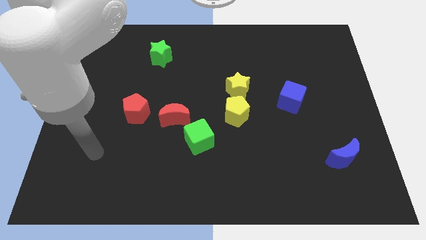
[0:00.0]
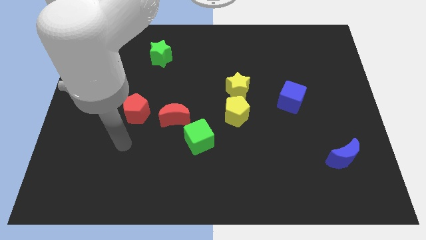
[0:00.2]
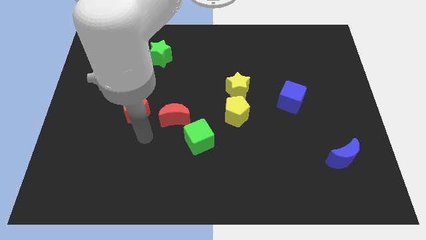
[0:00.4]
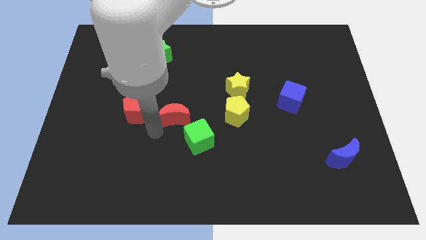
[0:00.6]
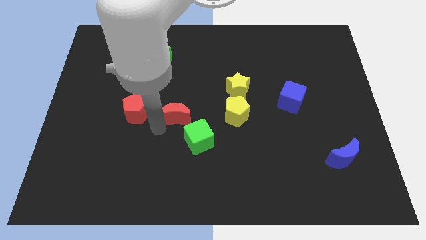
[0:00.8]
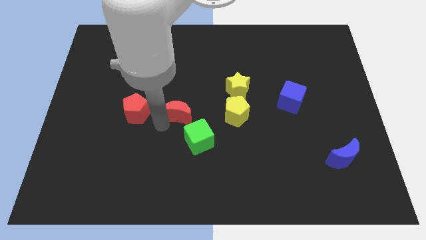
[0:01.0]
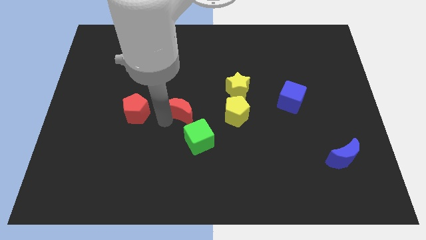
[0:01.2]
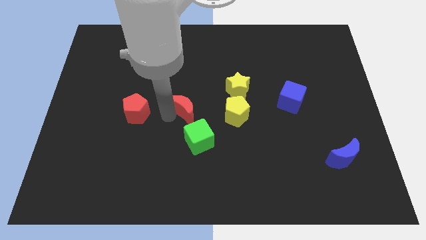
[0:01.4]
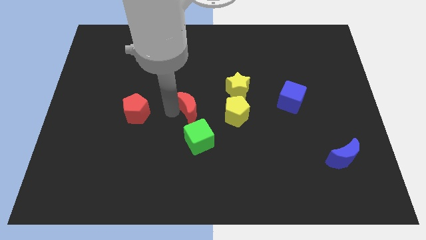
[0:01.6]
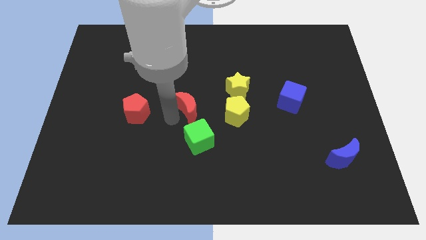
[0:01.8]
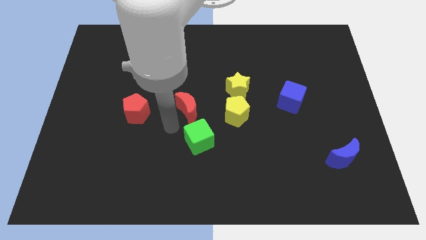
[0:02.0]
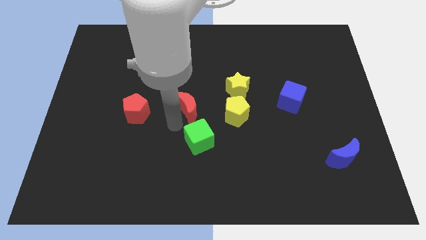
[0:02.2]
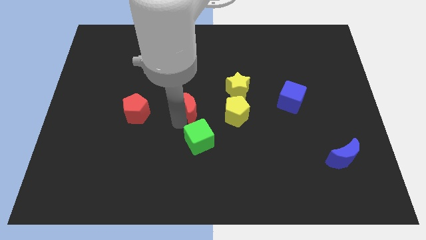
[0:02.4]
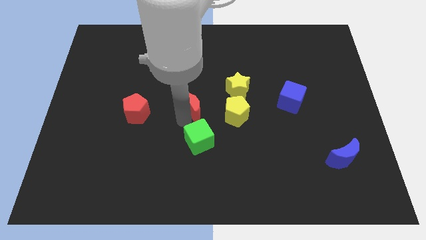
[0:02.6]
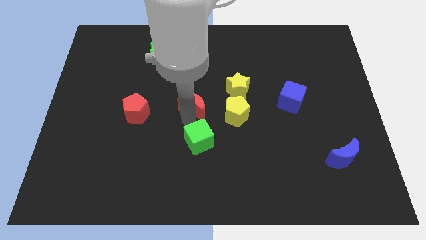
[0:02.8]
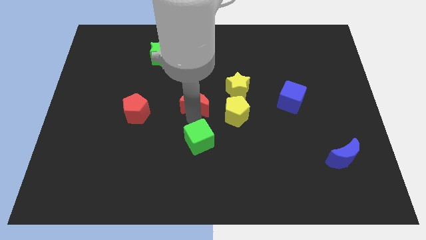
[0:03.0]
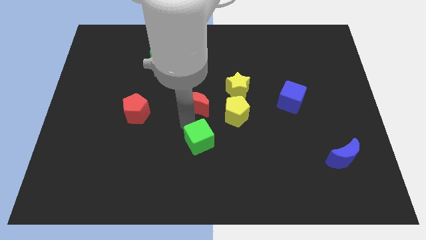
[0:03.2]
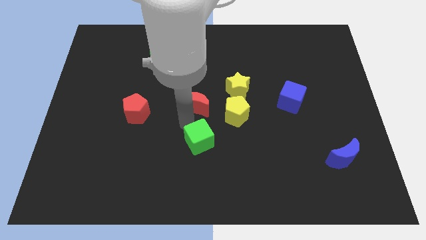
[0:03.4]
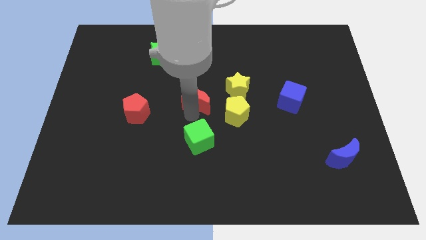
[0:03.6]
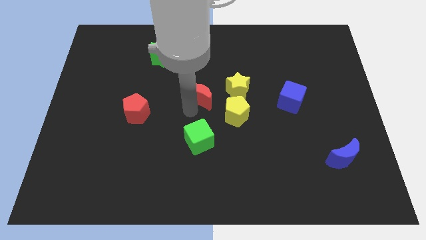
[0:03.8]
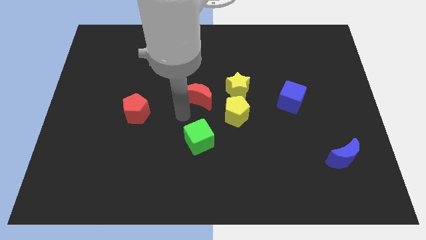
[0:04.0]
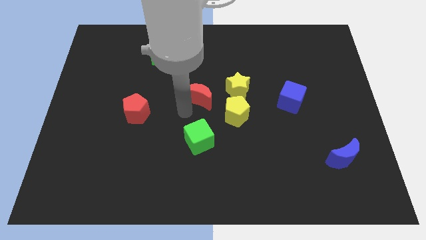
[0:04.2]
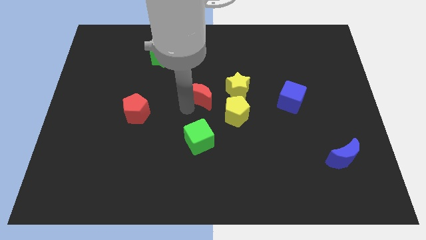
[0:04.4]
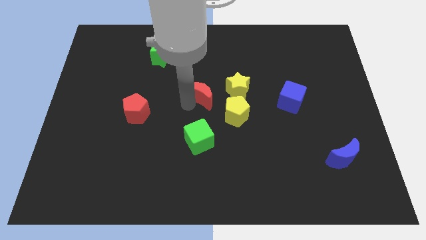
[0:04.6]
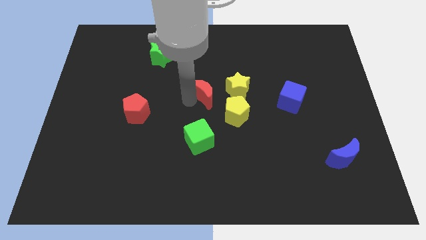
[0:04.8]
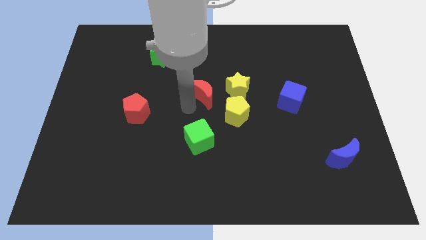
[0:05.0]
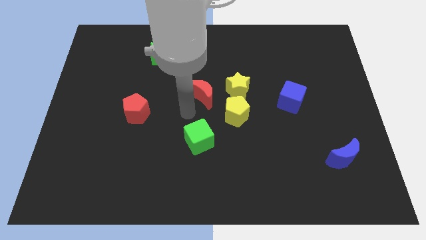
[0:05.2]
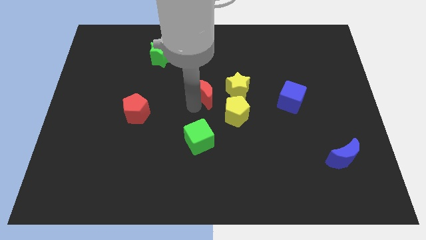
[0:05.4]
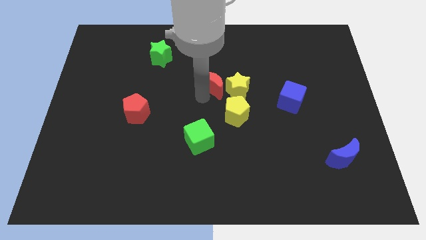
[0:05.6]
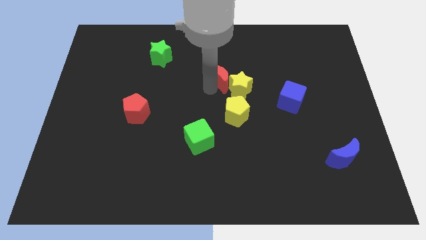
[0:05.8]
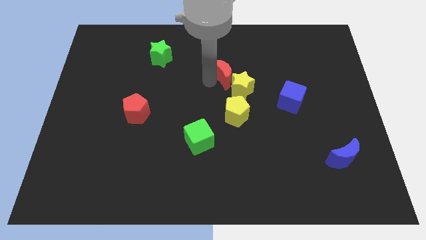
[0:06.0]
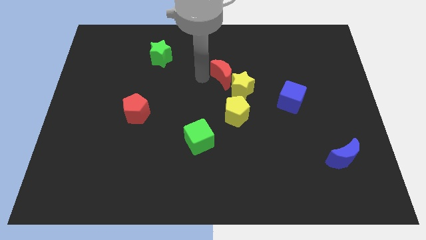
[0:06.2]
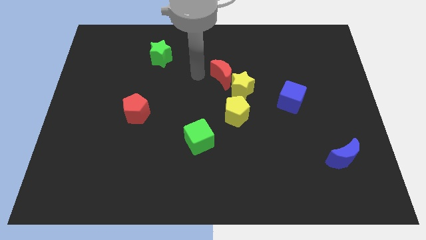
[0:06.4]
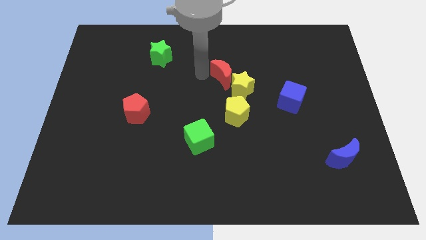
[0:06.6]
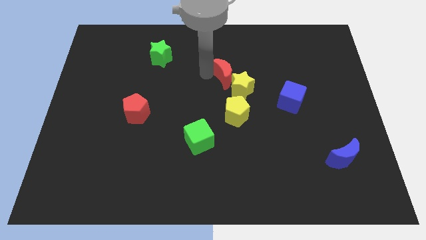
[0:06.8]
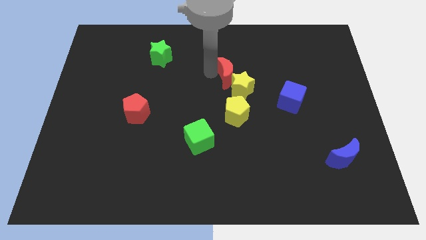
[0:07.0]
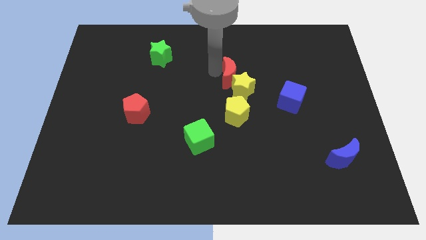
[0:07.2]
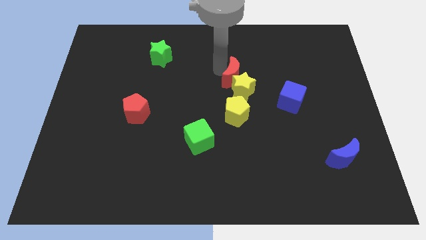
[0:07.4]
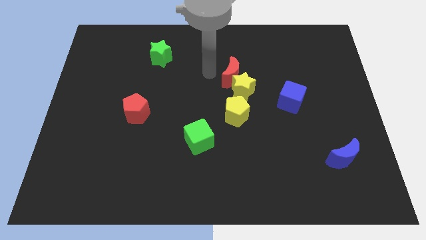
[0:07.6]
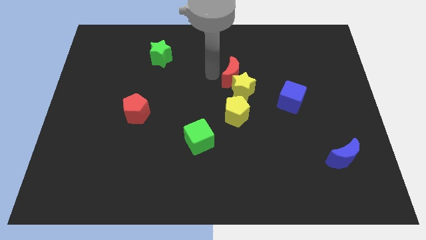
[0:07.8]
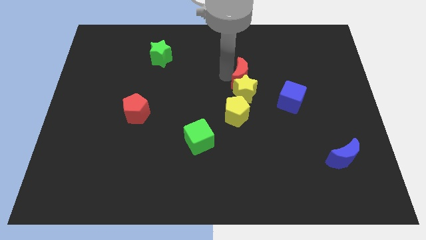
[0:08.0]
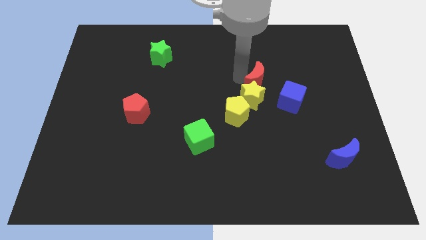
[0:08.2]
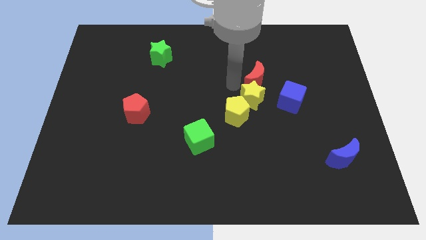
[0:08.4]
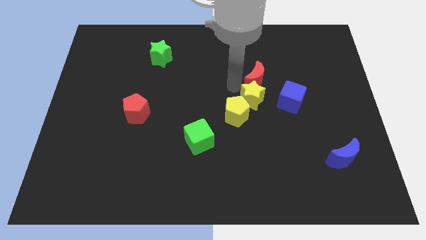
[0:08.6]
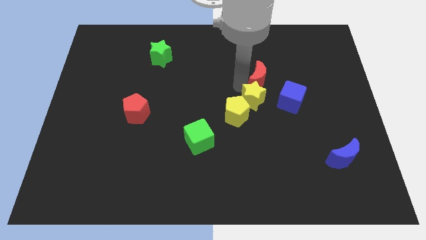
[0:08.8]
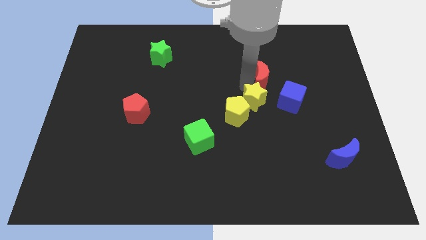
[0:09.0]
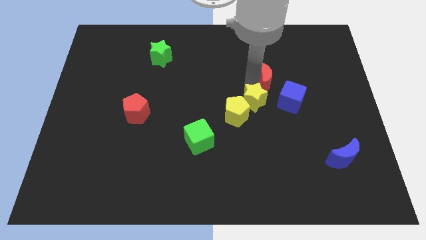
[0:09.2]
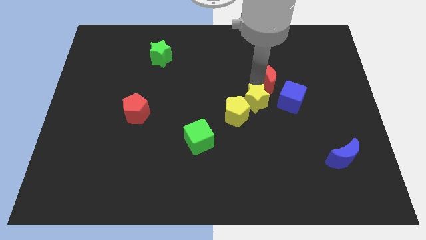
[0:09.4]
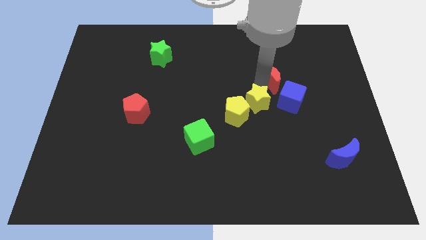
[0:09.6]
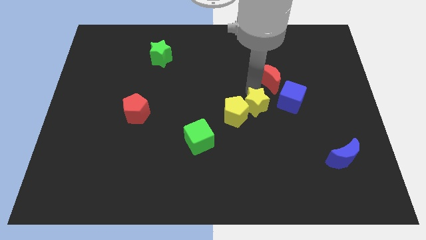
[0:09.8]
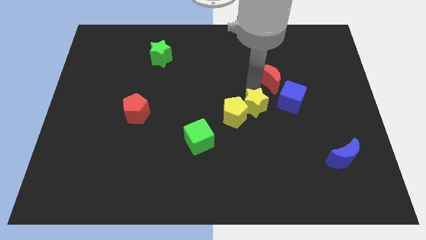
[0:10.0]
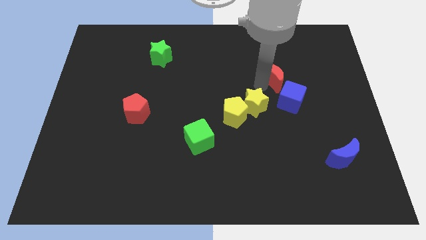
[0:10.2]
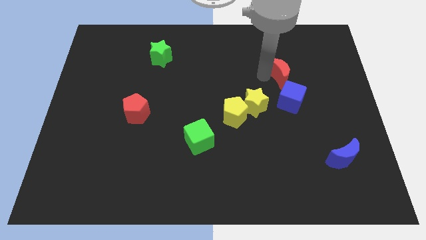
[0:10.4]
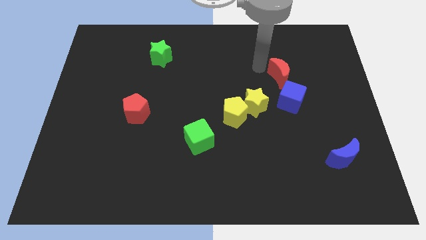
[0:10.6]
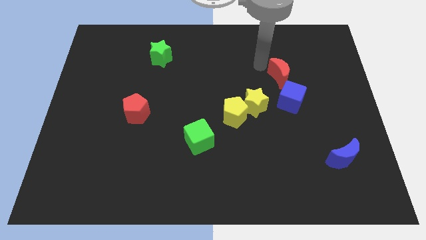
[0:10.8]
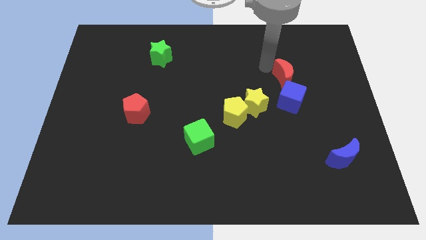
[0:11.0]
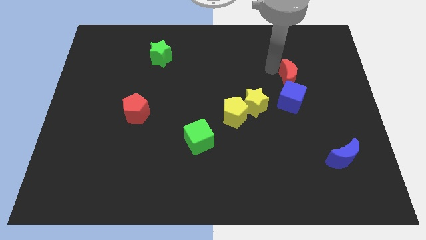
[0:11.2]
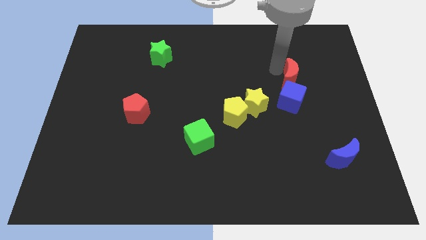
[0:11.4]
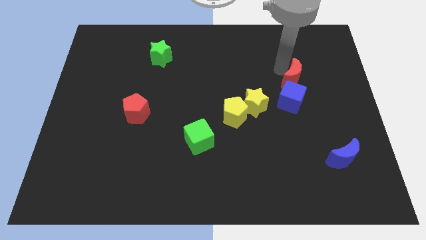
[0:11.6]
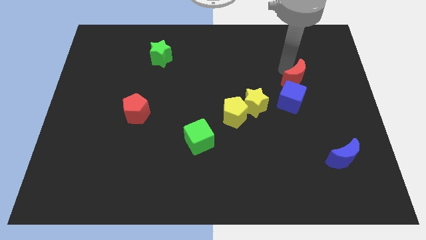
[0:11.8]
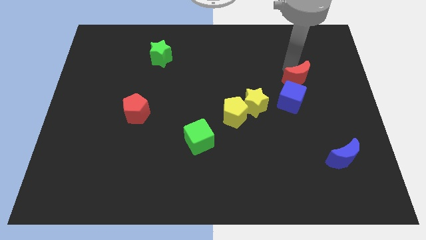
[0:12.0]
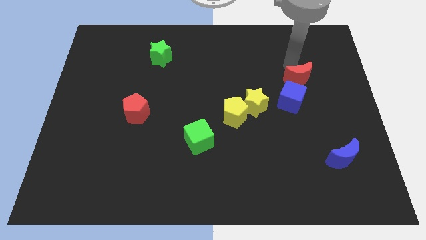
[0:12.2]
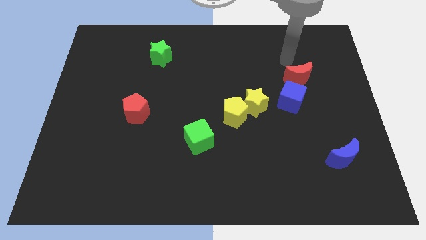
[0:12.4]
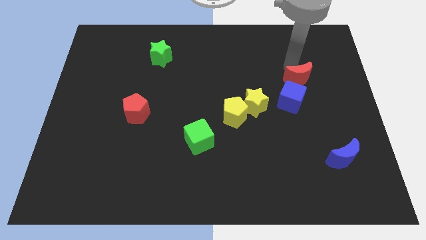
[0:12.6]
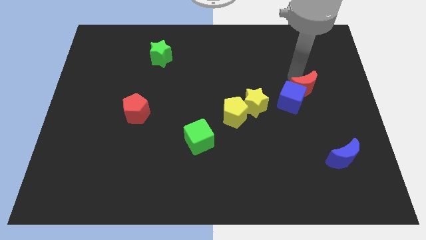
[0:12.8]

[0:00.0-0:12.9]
push the red moon right of the blue cube
